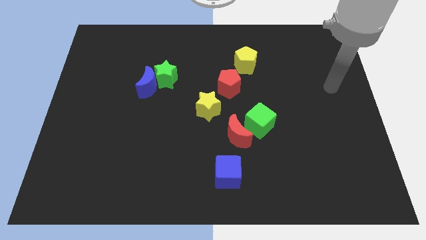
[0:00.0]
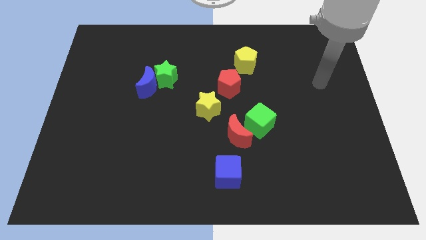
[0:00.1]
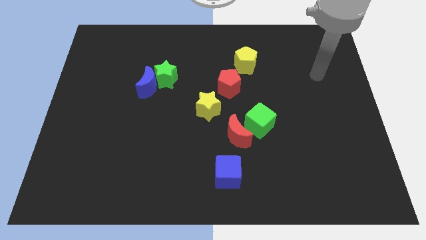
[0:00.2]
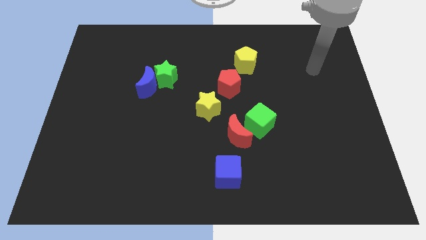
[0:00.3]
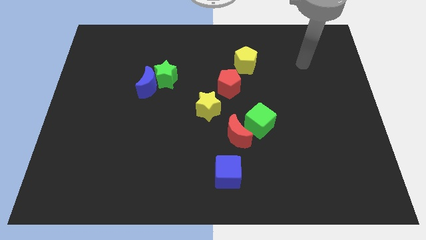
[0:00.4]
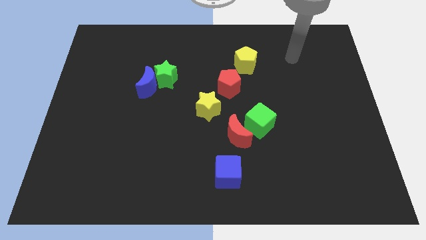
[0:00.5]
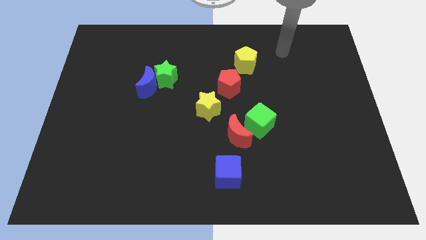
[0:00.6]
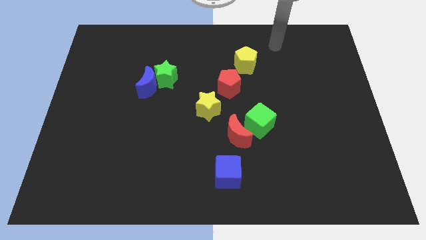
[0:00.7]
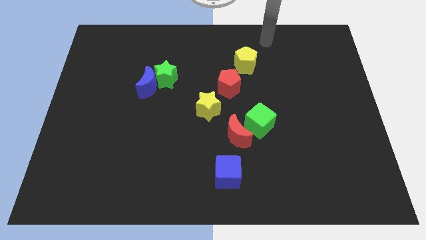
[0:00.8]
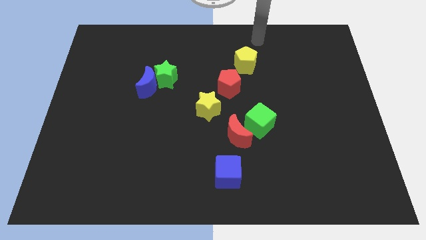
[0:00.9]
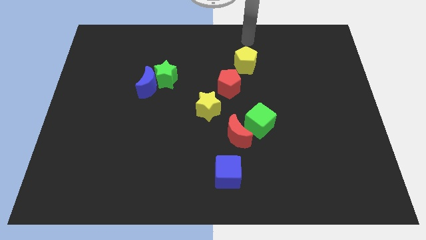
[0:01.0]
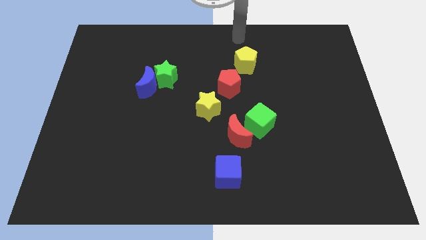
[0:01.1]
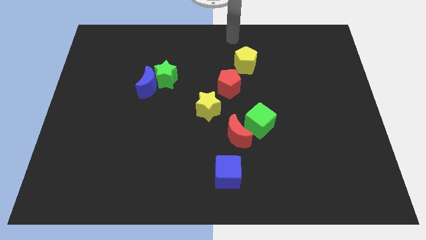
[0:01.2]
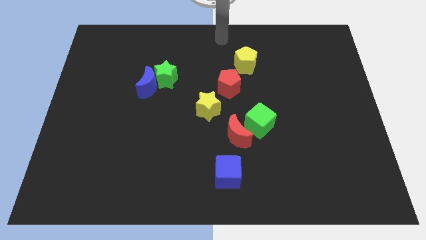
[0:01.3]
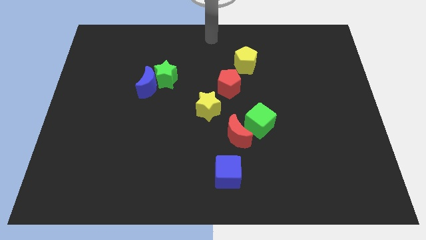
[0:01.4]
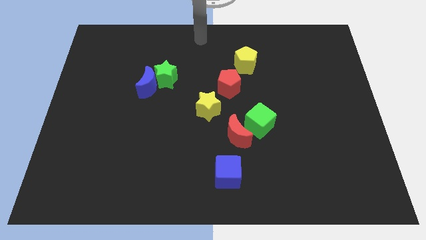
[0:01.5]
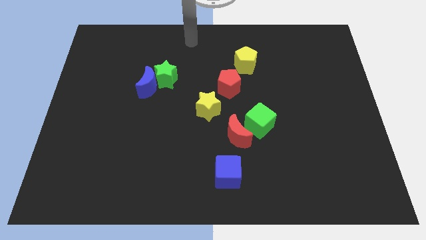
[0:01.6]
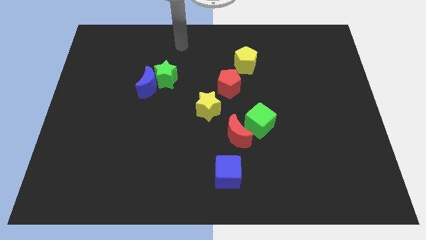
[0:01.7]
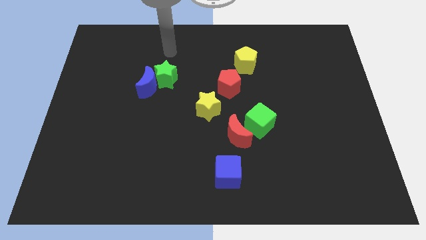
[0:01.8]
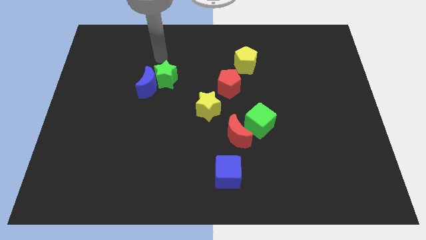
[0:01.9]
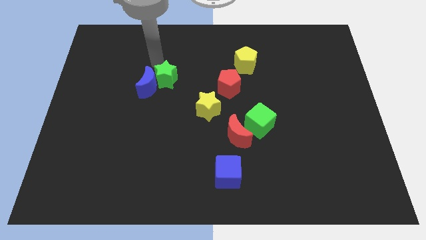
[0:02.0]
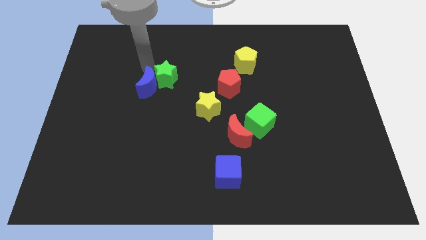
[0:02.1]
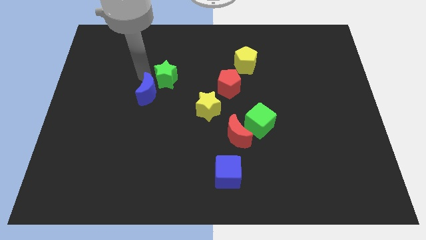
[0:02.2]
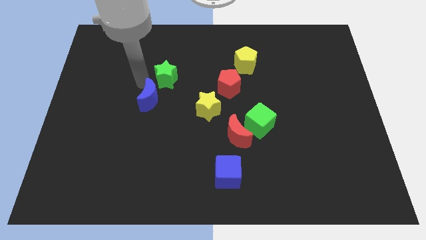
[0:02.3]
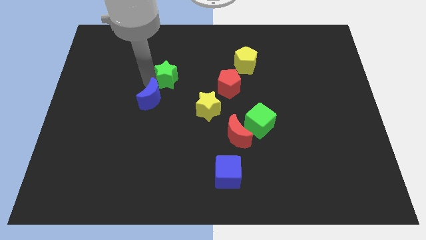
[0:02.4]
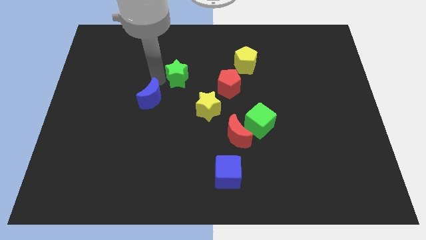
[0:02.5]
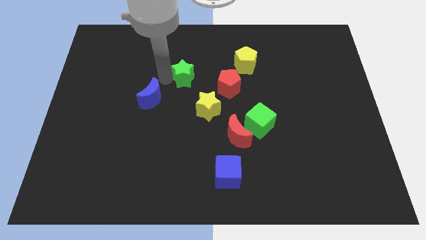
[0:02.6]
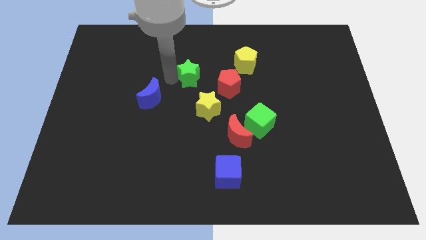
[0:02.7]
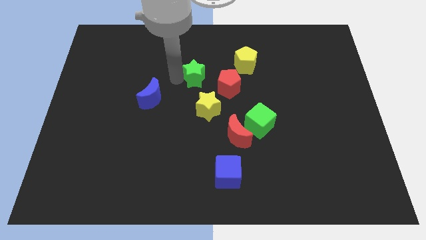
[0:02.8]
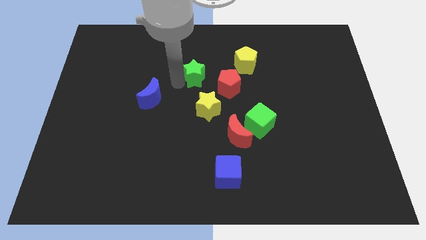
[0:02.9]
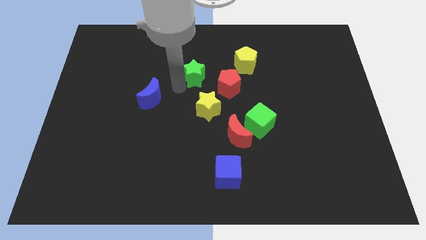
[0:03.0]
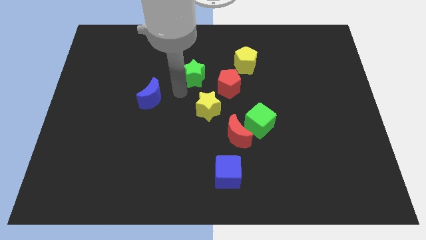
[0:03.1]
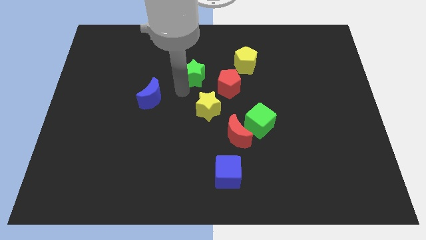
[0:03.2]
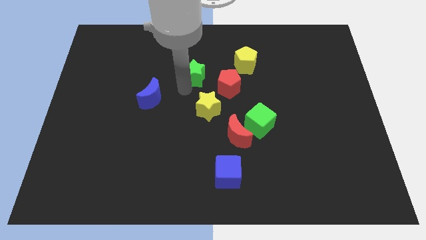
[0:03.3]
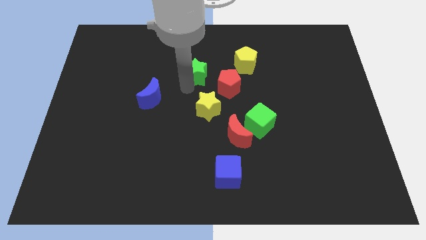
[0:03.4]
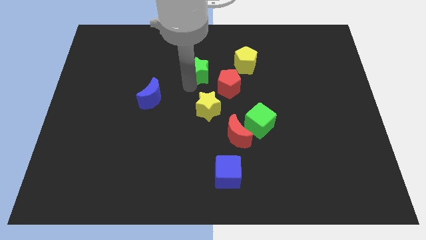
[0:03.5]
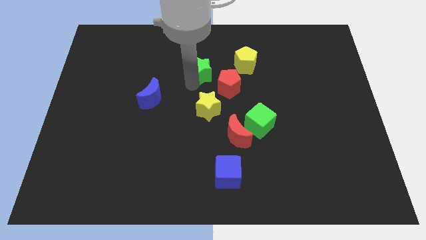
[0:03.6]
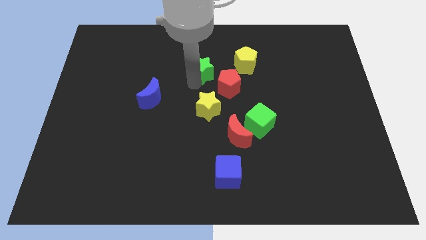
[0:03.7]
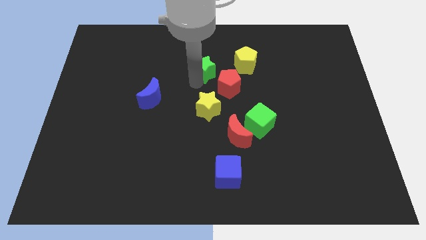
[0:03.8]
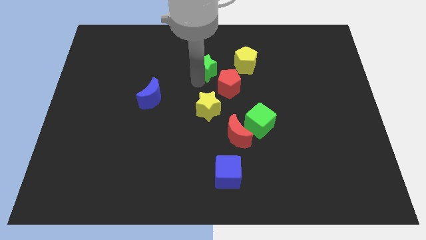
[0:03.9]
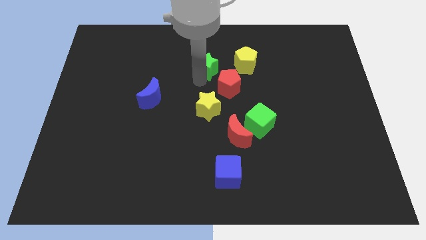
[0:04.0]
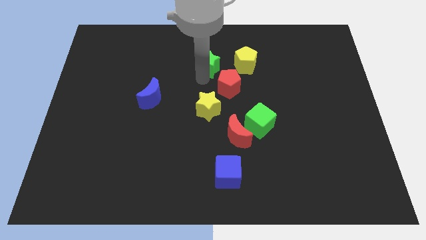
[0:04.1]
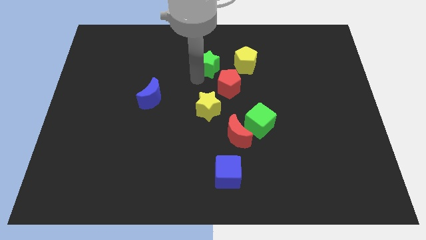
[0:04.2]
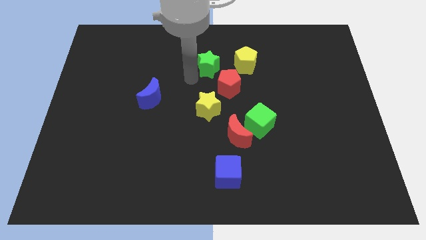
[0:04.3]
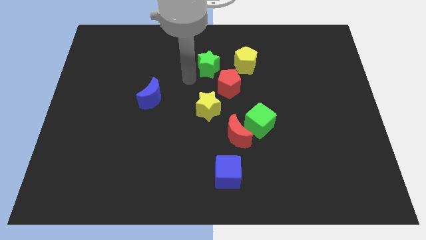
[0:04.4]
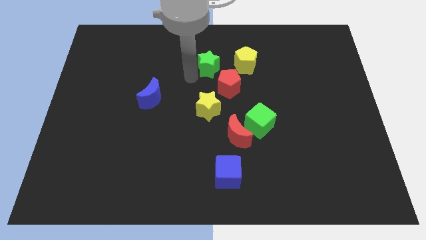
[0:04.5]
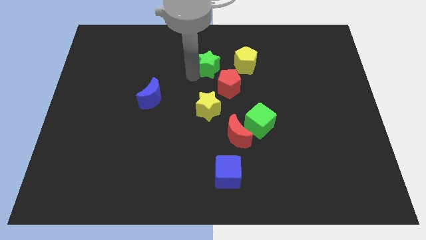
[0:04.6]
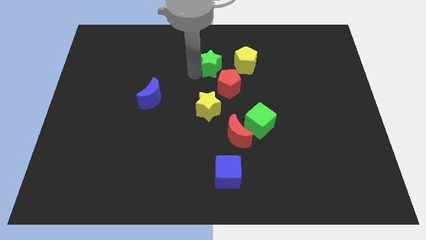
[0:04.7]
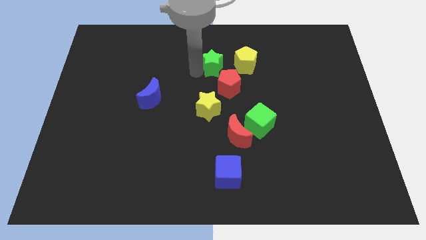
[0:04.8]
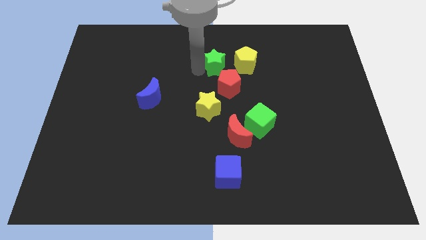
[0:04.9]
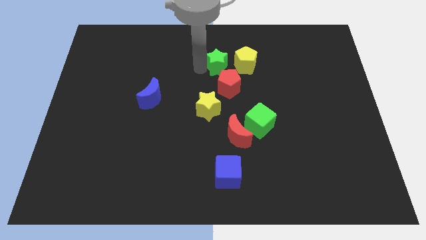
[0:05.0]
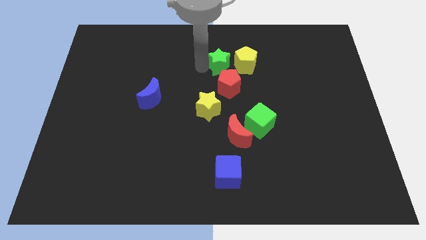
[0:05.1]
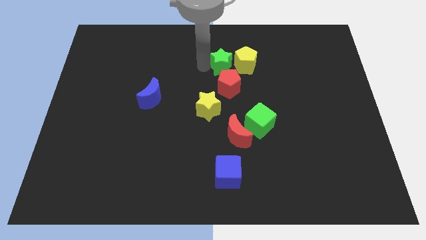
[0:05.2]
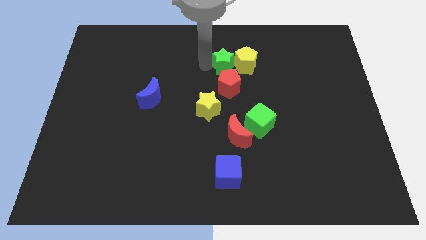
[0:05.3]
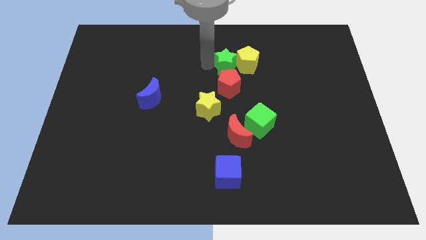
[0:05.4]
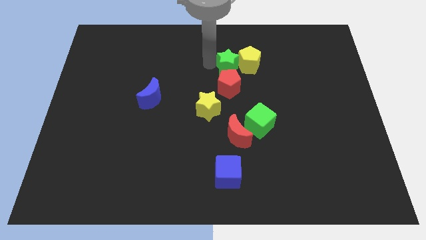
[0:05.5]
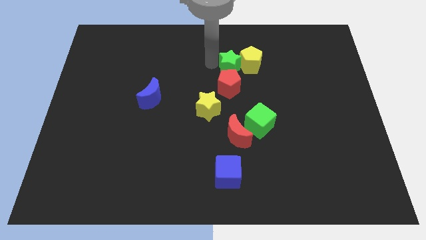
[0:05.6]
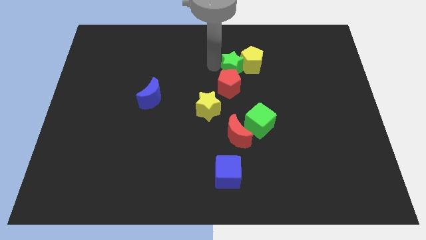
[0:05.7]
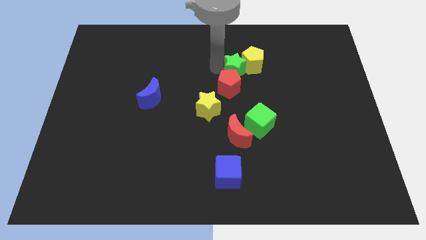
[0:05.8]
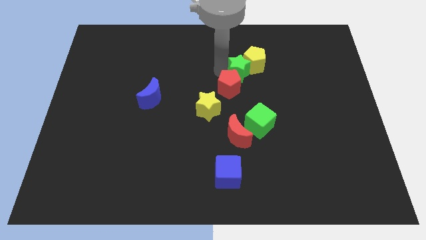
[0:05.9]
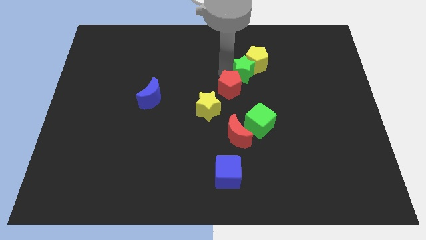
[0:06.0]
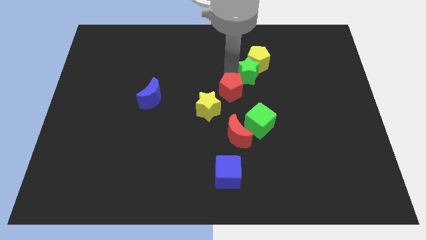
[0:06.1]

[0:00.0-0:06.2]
slide the green star to the right

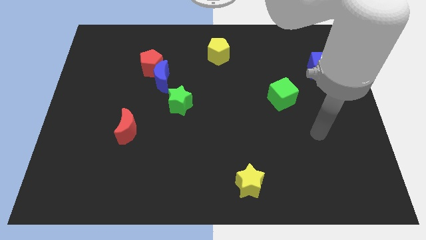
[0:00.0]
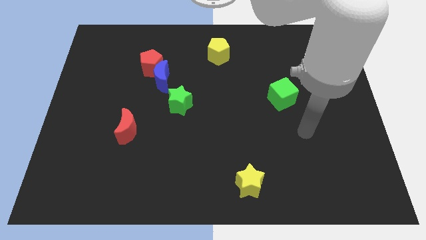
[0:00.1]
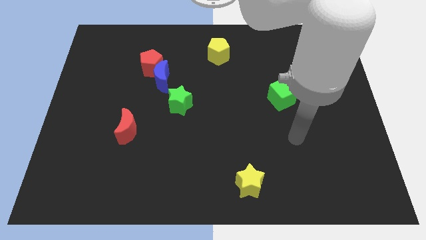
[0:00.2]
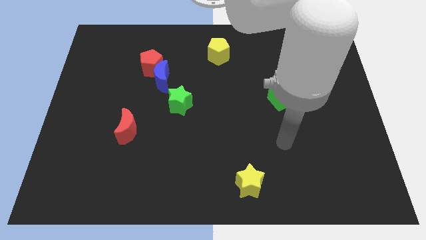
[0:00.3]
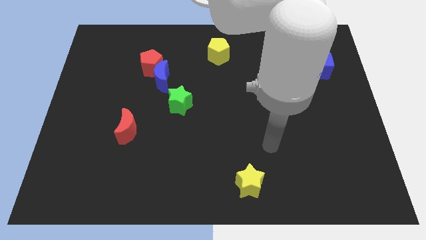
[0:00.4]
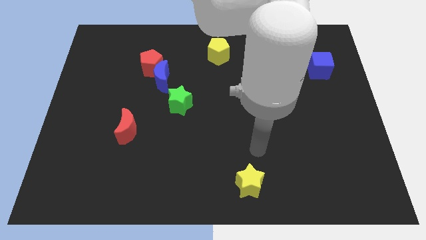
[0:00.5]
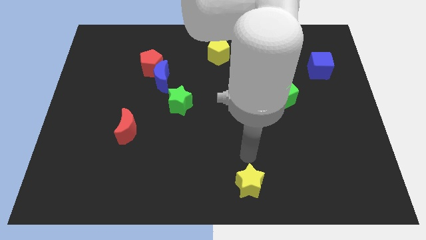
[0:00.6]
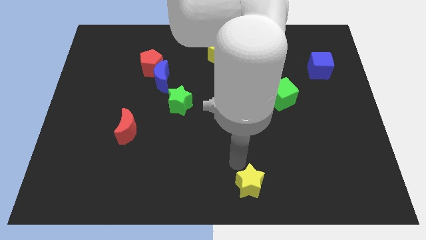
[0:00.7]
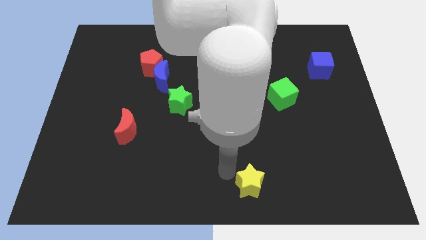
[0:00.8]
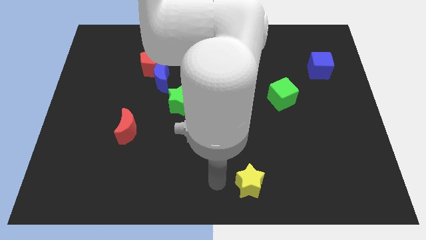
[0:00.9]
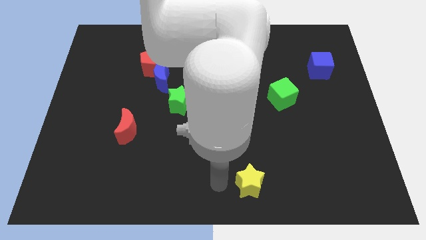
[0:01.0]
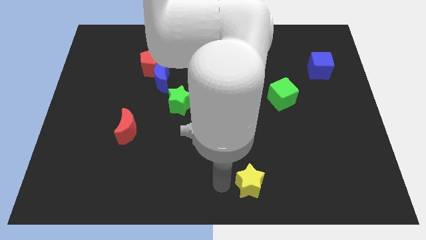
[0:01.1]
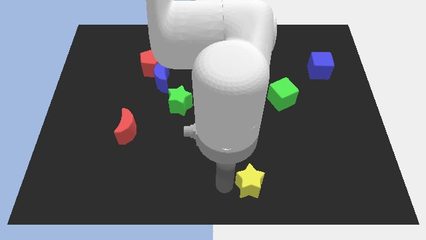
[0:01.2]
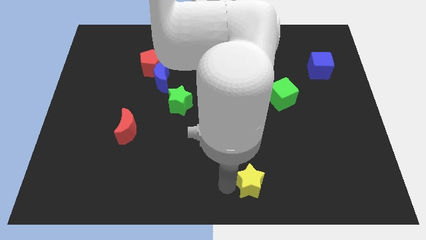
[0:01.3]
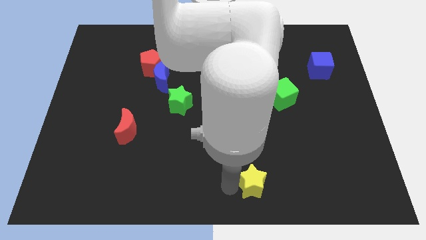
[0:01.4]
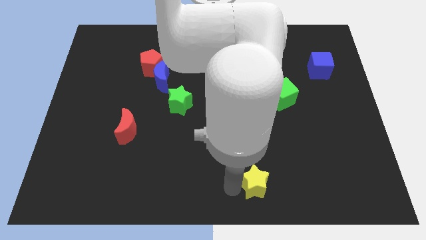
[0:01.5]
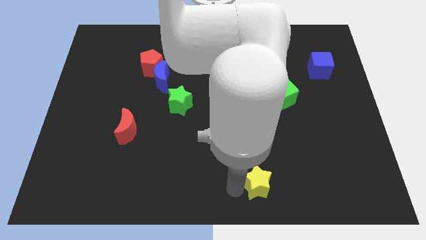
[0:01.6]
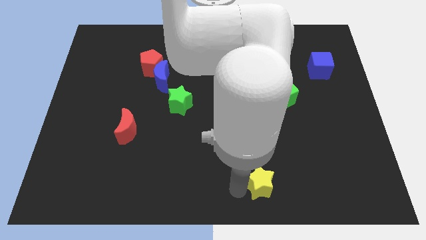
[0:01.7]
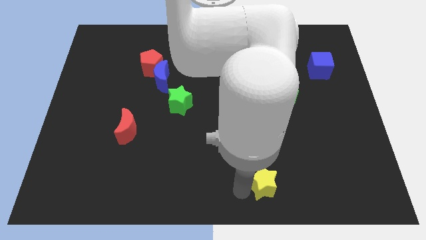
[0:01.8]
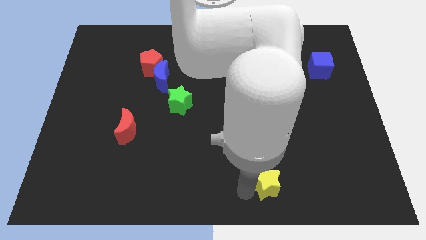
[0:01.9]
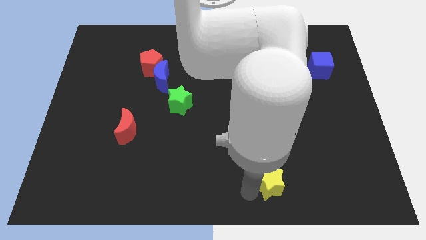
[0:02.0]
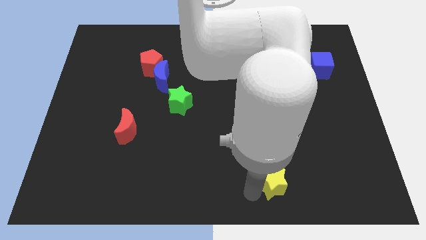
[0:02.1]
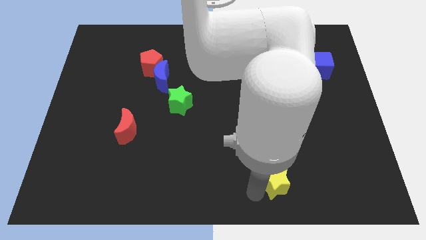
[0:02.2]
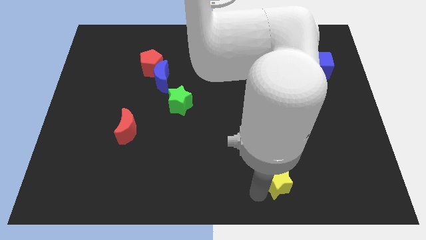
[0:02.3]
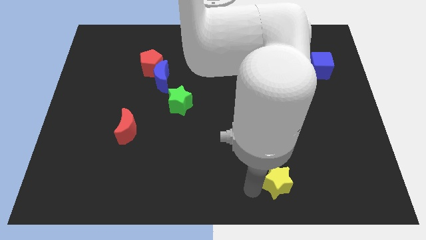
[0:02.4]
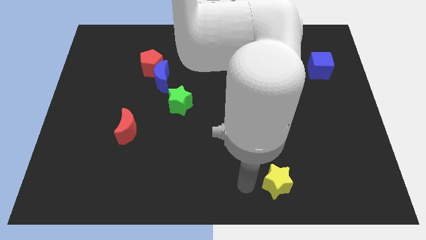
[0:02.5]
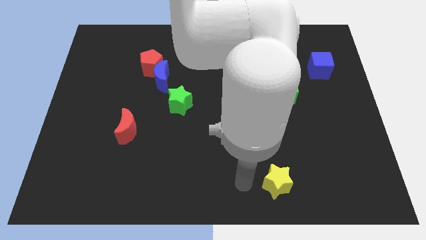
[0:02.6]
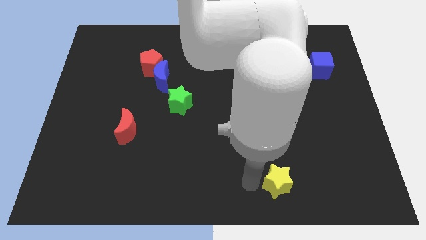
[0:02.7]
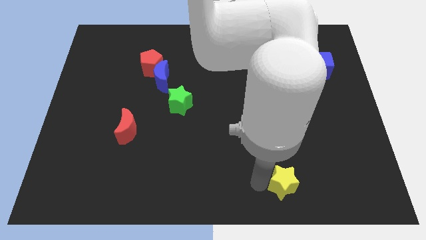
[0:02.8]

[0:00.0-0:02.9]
push the yellow star right a bit
